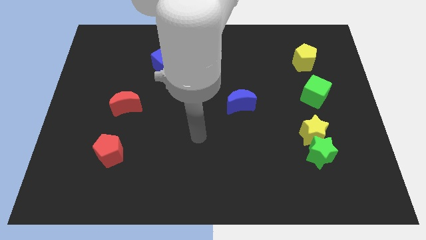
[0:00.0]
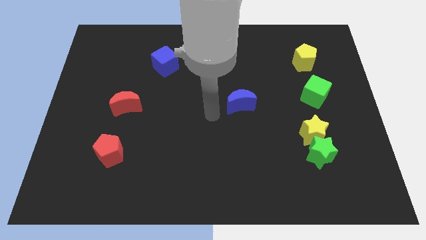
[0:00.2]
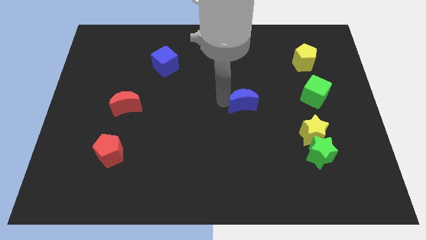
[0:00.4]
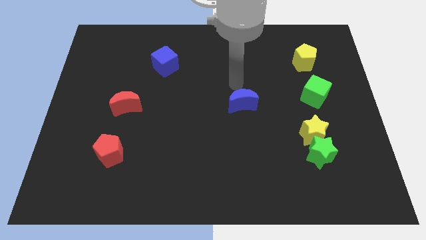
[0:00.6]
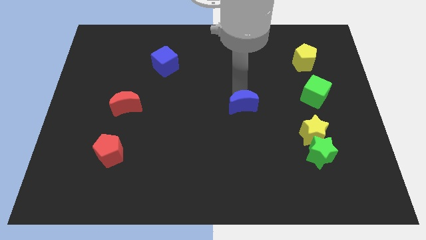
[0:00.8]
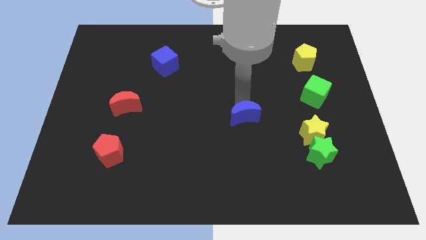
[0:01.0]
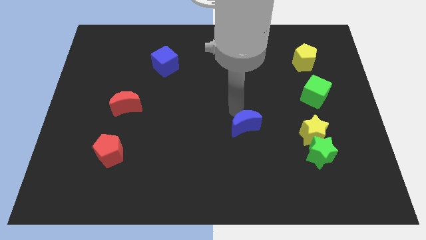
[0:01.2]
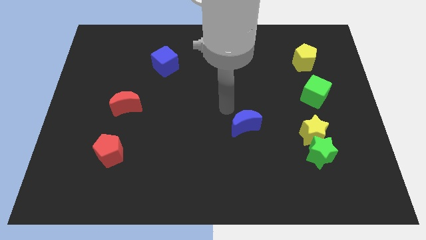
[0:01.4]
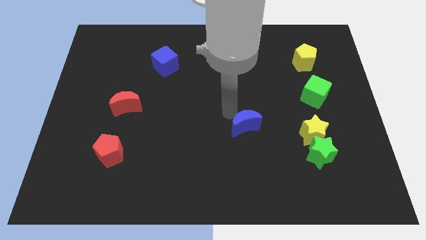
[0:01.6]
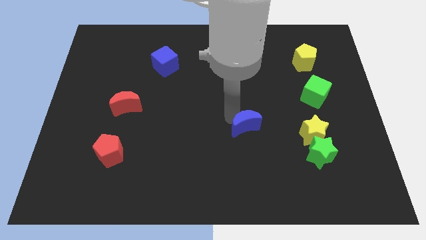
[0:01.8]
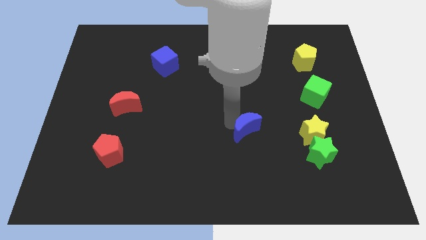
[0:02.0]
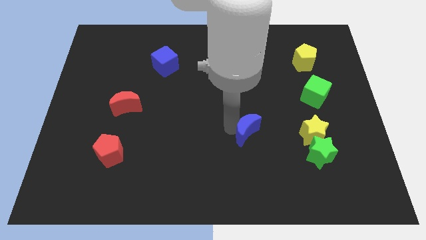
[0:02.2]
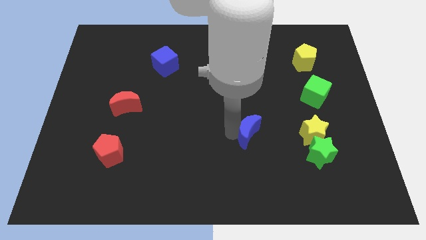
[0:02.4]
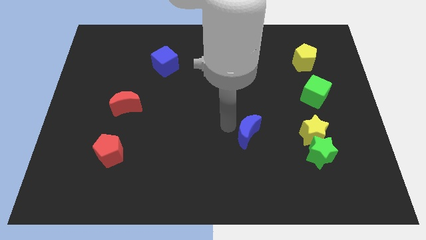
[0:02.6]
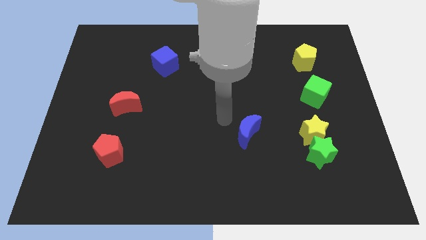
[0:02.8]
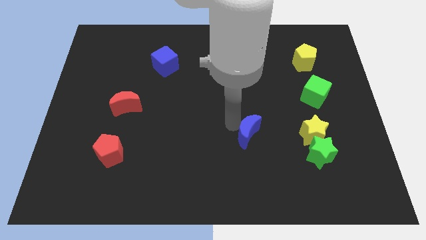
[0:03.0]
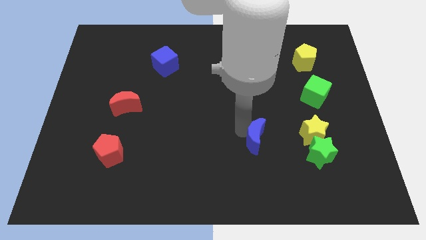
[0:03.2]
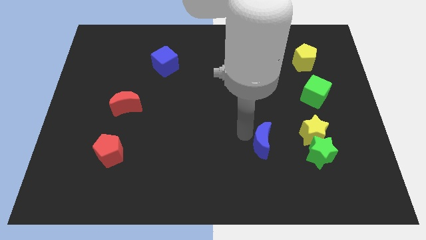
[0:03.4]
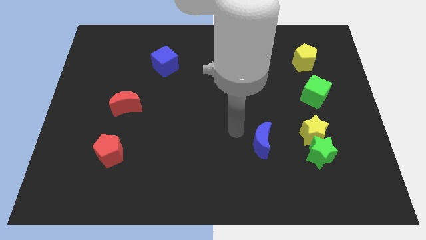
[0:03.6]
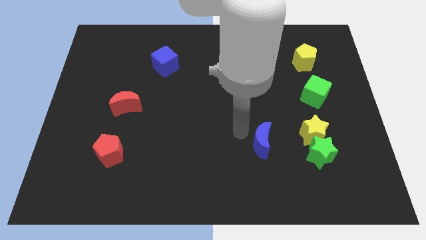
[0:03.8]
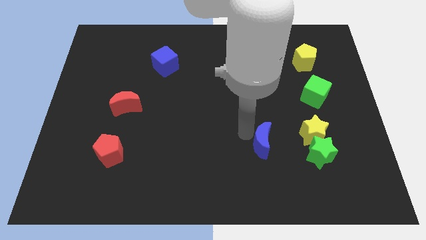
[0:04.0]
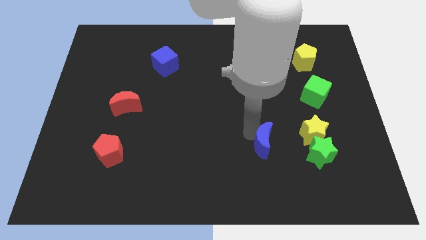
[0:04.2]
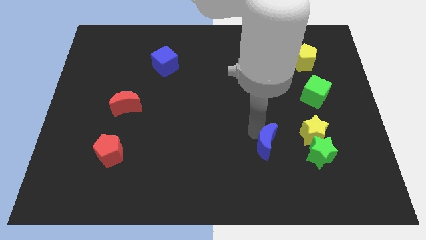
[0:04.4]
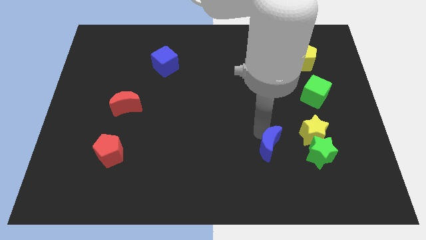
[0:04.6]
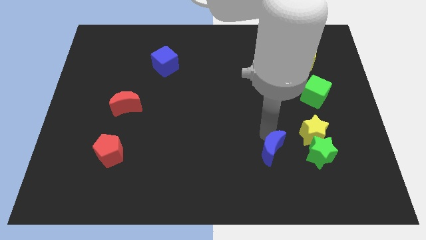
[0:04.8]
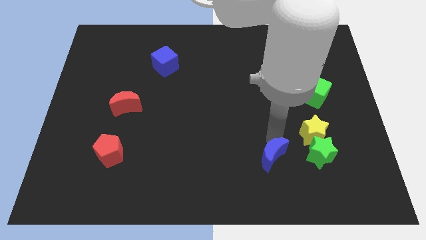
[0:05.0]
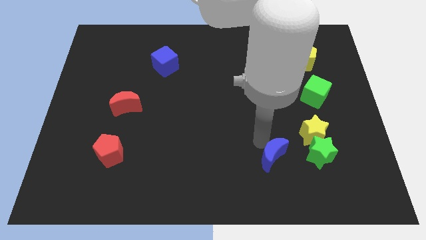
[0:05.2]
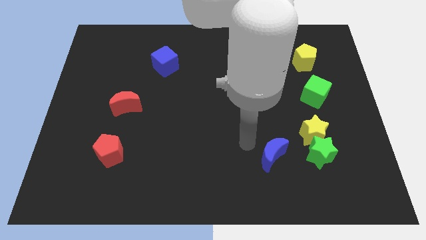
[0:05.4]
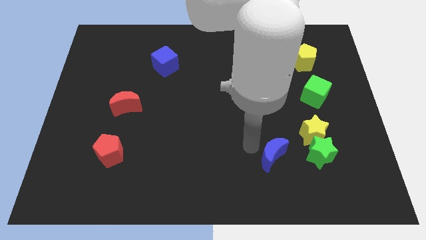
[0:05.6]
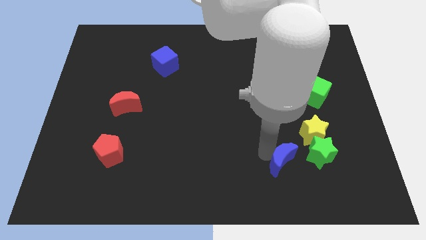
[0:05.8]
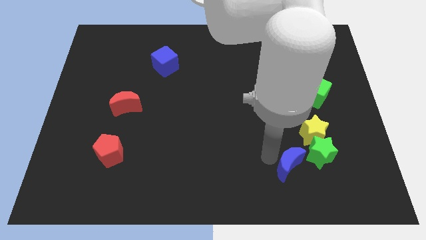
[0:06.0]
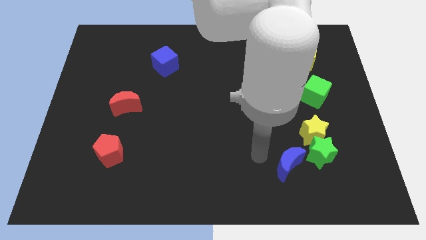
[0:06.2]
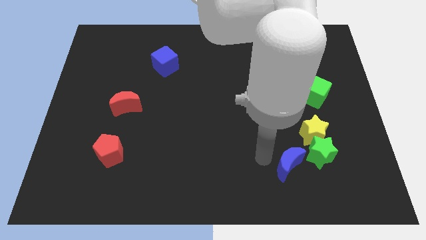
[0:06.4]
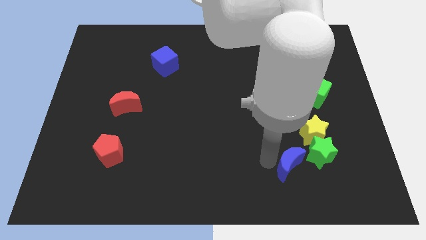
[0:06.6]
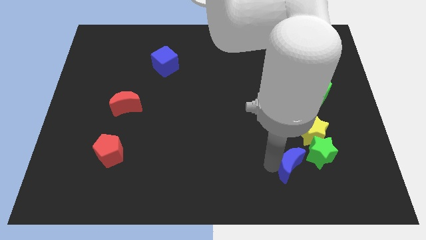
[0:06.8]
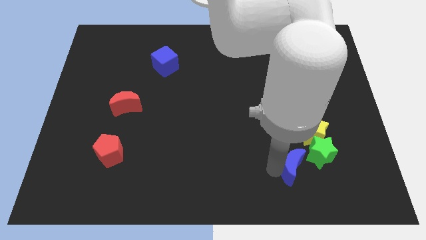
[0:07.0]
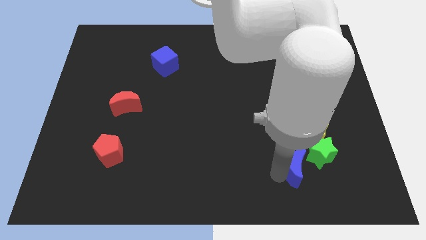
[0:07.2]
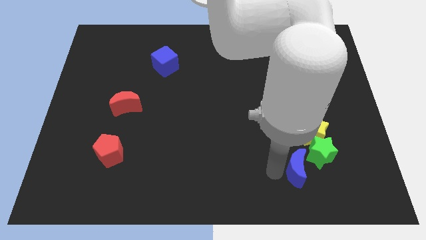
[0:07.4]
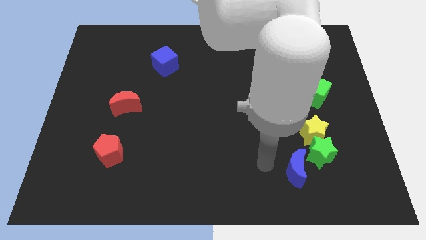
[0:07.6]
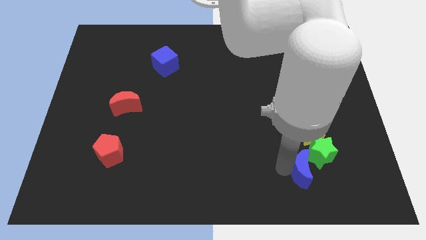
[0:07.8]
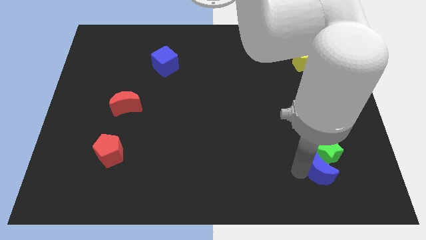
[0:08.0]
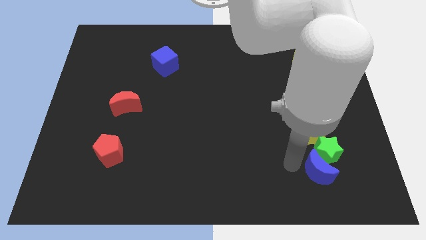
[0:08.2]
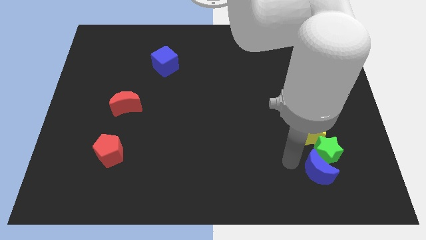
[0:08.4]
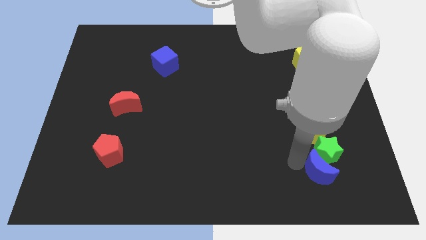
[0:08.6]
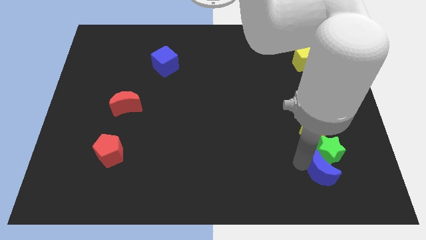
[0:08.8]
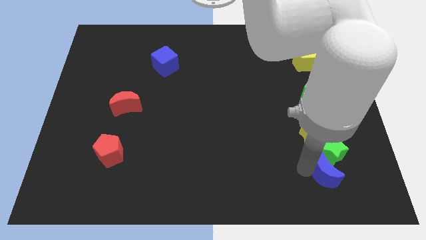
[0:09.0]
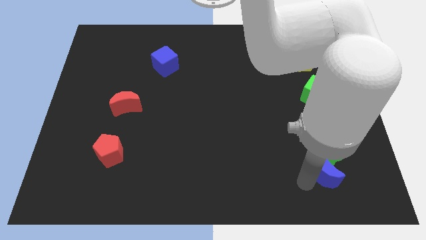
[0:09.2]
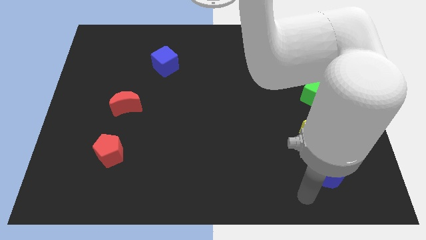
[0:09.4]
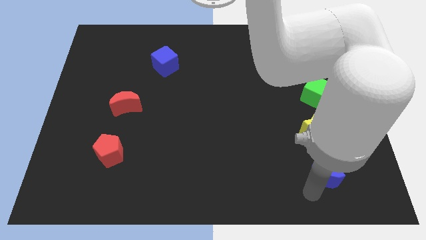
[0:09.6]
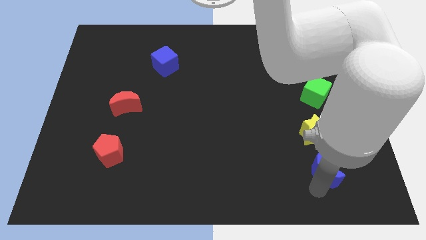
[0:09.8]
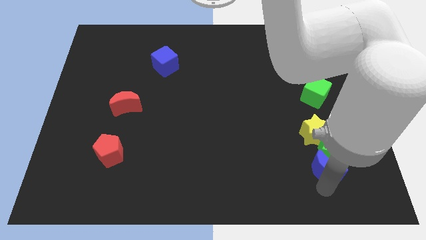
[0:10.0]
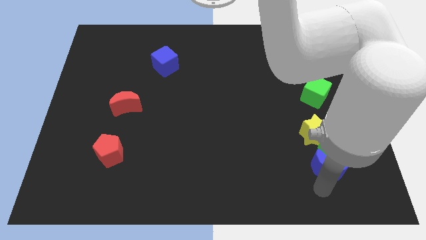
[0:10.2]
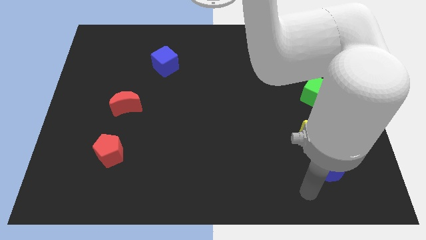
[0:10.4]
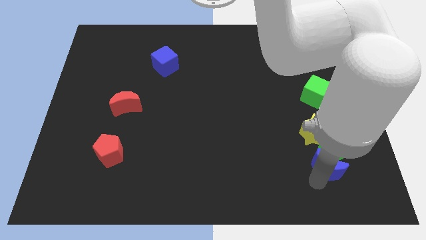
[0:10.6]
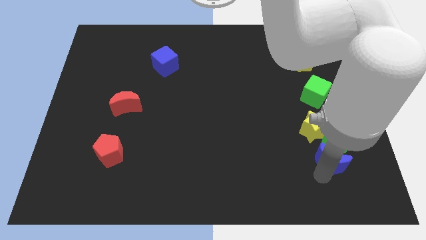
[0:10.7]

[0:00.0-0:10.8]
move the blue moon to the bottom right of the yellow star
